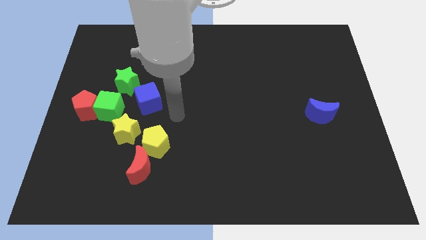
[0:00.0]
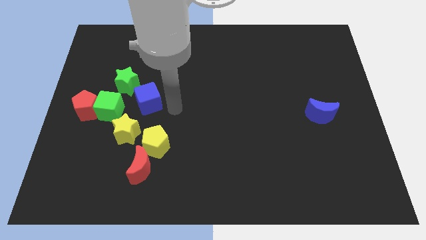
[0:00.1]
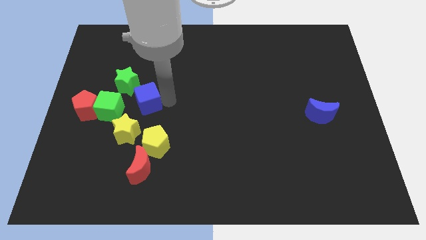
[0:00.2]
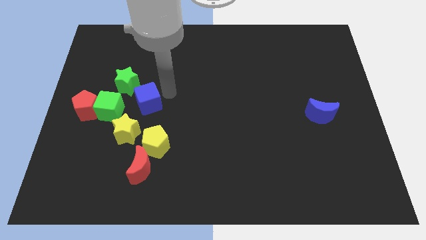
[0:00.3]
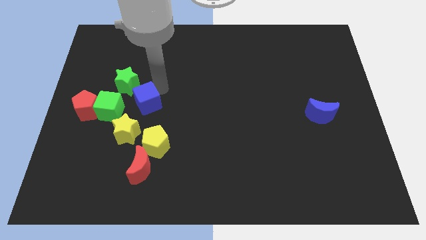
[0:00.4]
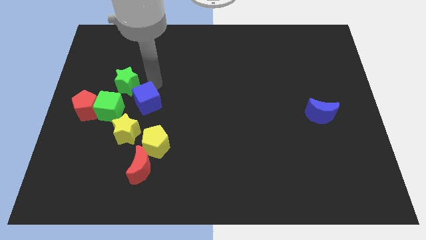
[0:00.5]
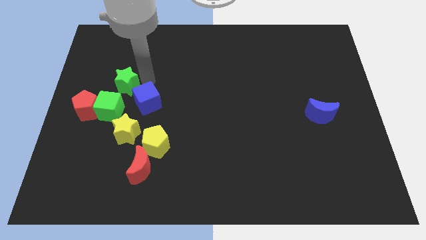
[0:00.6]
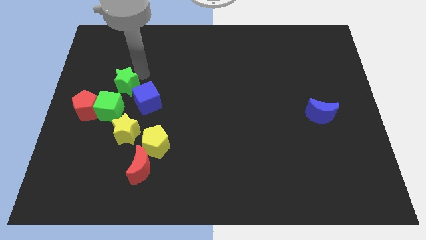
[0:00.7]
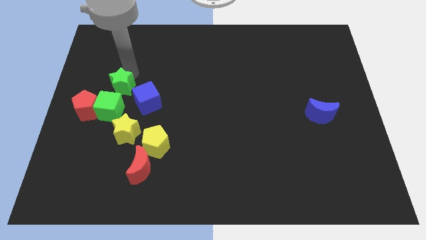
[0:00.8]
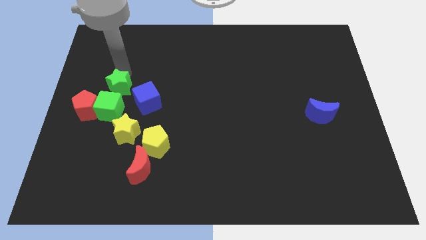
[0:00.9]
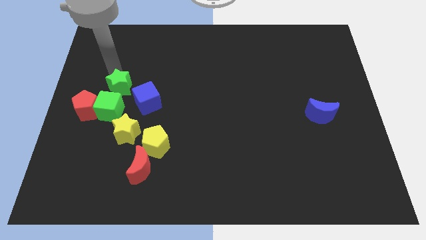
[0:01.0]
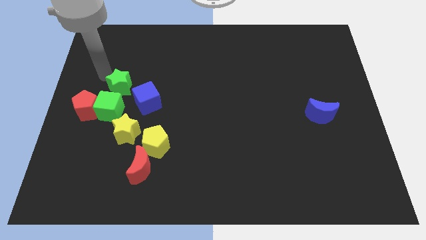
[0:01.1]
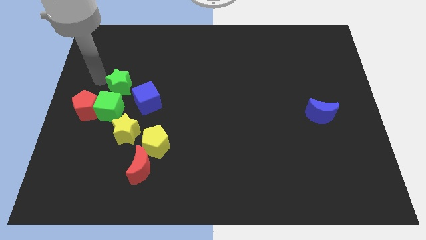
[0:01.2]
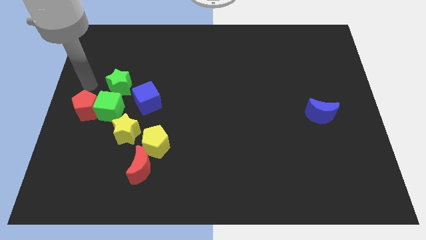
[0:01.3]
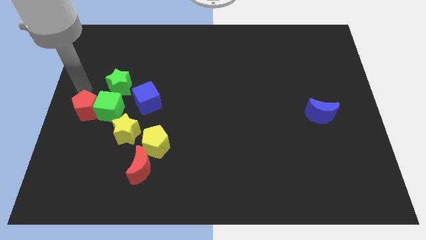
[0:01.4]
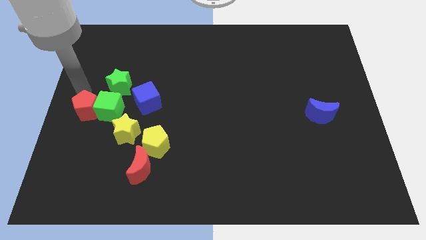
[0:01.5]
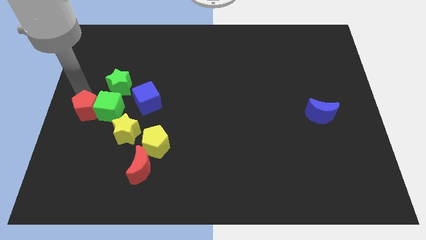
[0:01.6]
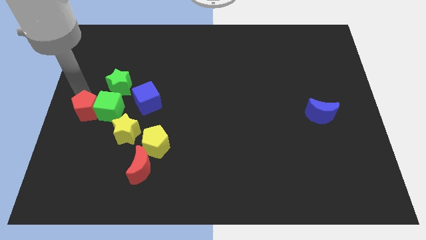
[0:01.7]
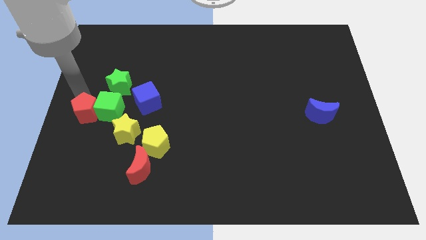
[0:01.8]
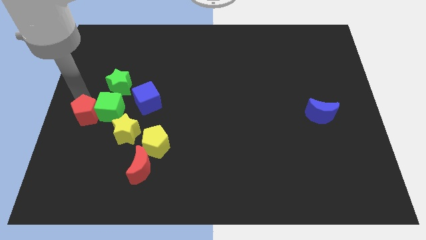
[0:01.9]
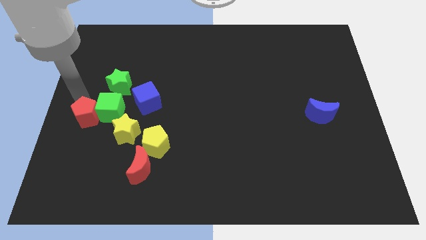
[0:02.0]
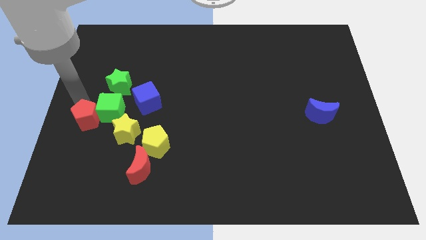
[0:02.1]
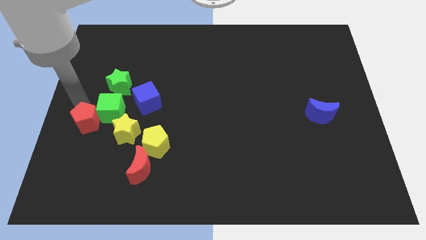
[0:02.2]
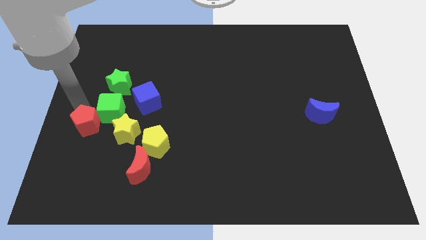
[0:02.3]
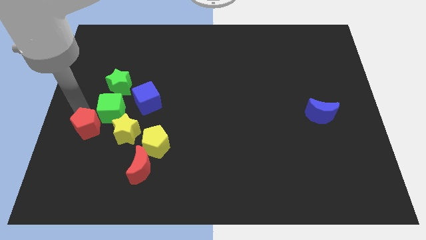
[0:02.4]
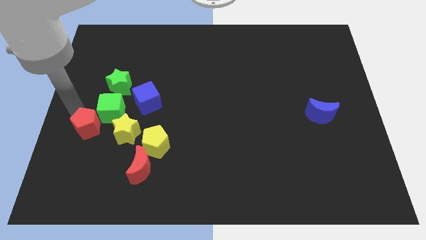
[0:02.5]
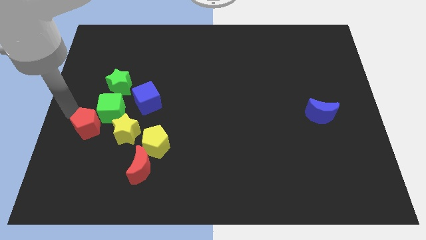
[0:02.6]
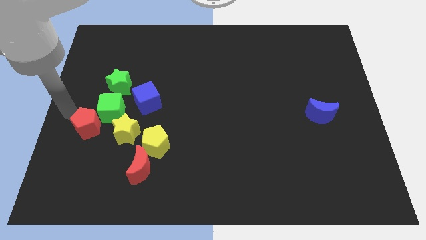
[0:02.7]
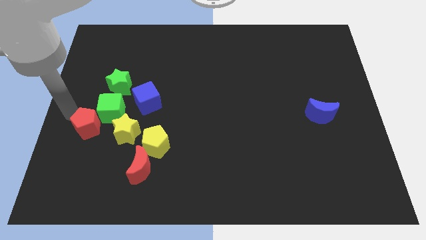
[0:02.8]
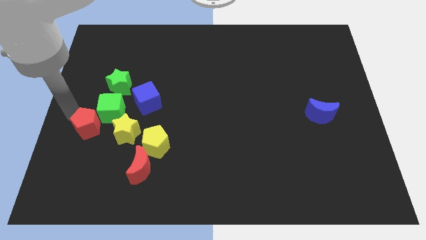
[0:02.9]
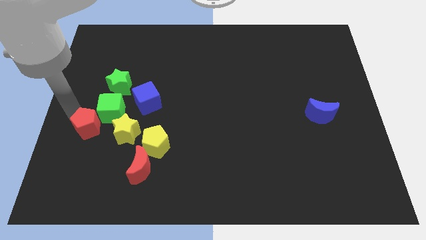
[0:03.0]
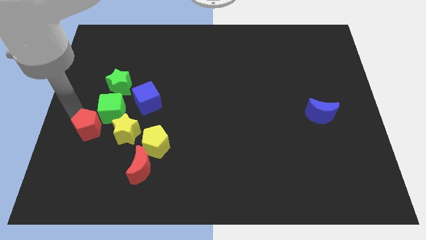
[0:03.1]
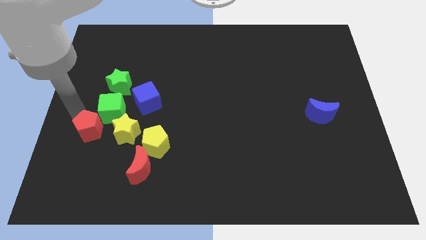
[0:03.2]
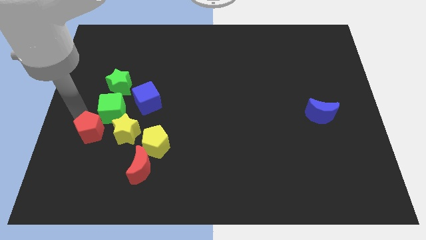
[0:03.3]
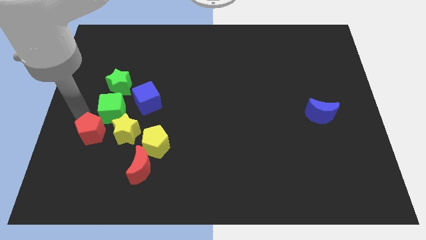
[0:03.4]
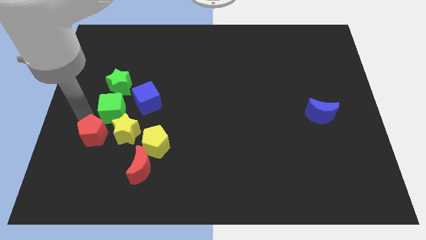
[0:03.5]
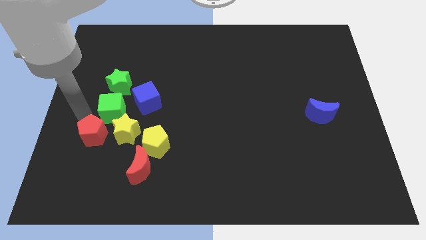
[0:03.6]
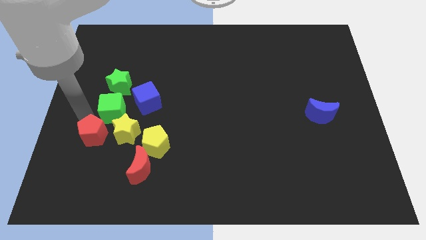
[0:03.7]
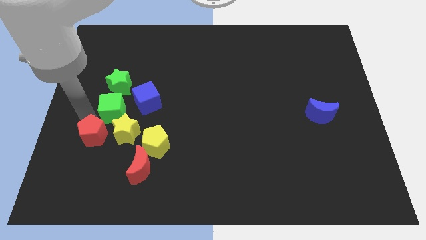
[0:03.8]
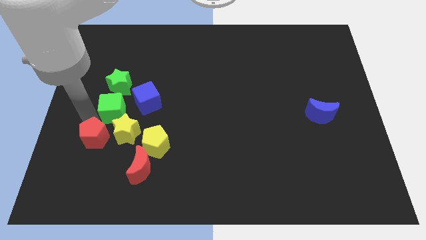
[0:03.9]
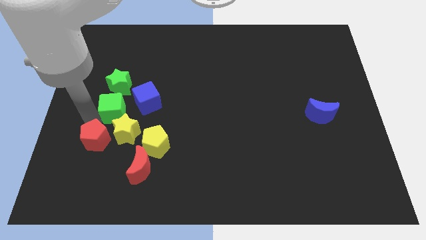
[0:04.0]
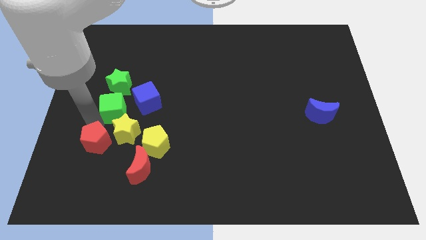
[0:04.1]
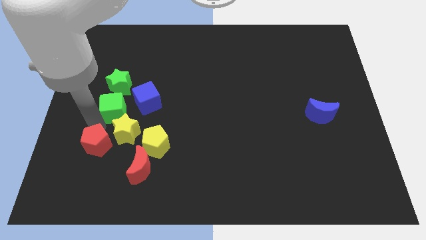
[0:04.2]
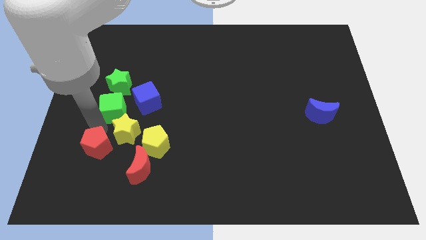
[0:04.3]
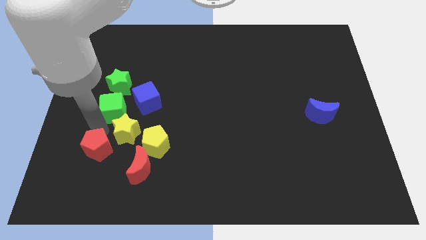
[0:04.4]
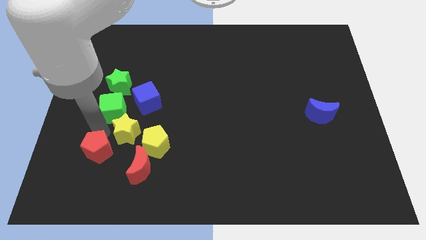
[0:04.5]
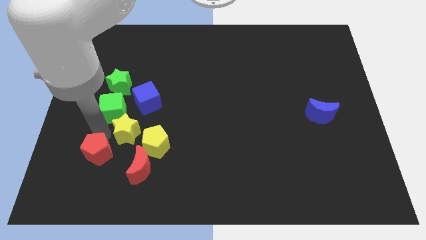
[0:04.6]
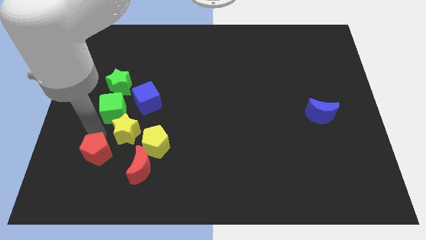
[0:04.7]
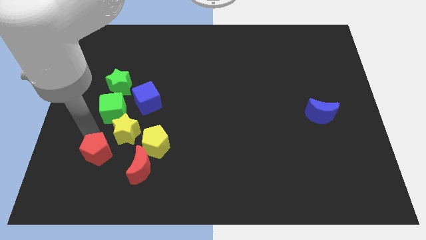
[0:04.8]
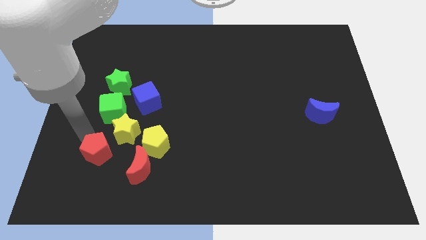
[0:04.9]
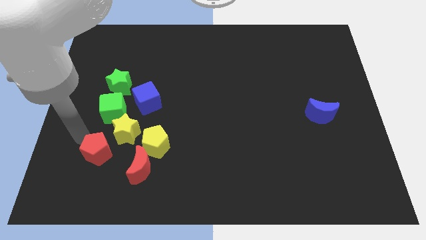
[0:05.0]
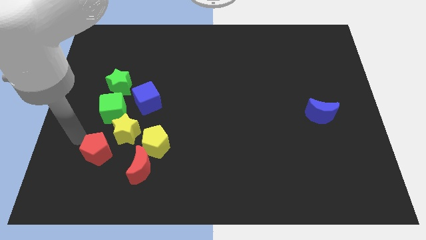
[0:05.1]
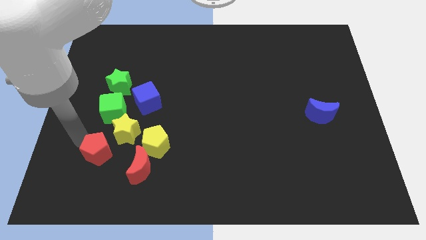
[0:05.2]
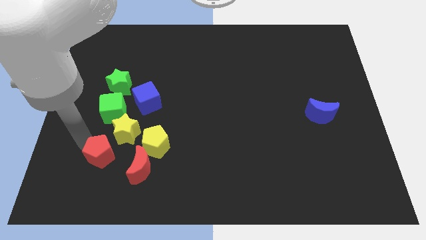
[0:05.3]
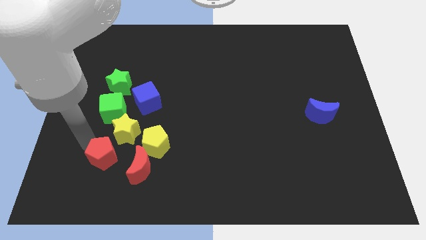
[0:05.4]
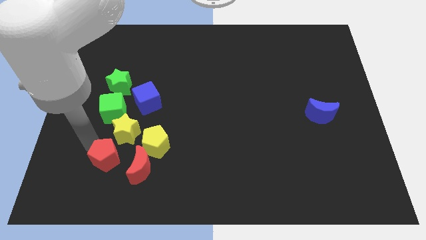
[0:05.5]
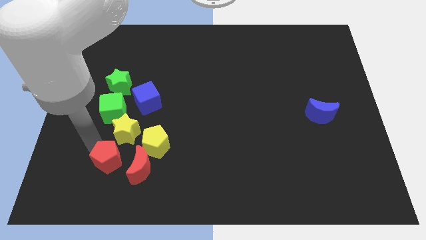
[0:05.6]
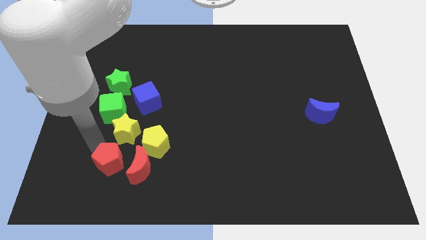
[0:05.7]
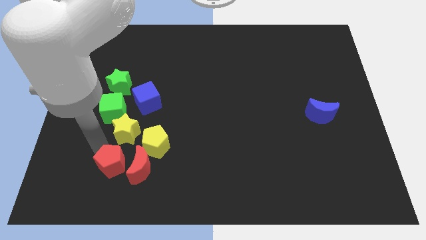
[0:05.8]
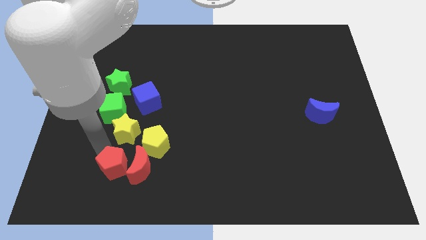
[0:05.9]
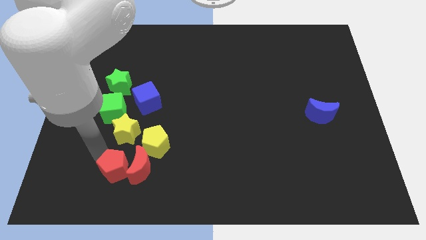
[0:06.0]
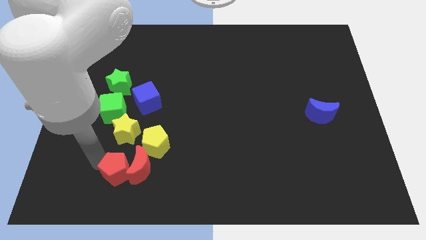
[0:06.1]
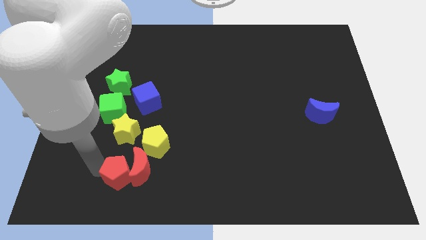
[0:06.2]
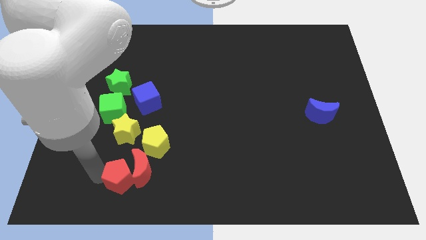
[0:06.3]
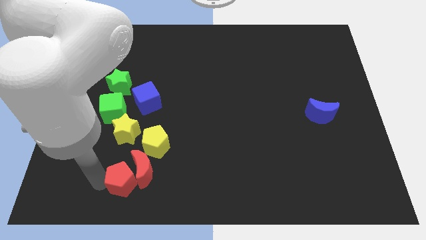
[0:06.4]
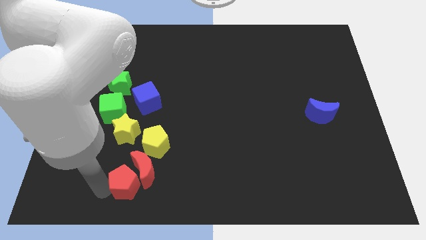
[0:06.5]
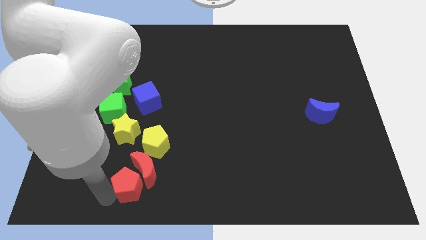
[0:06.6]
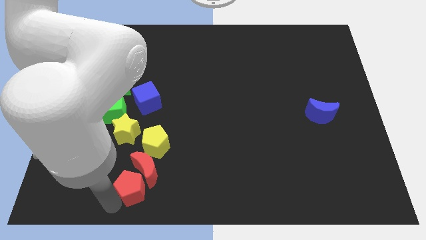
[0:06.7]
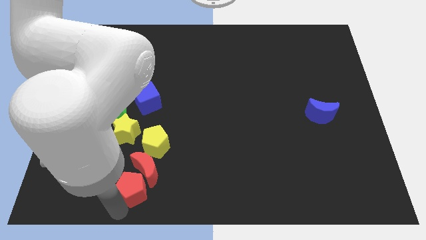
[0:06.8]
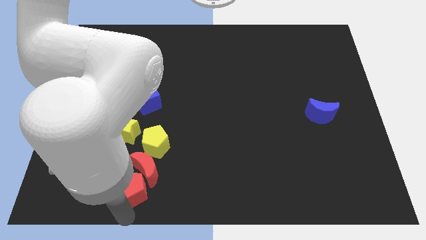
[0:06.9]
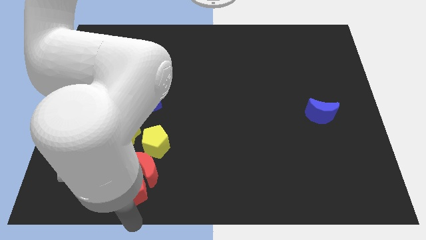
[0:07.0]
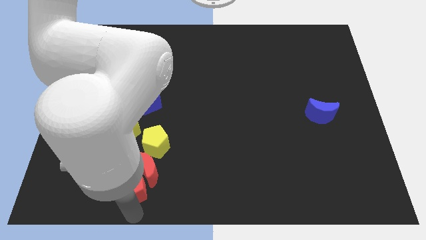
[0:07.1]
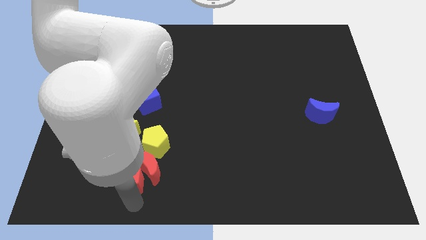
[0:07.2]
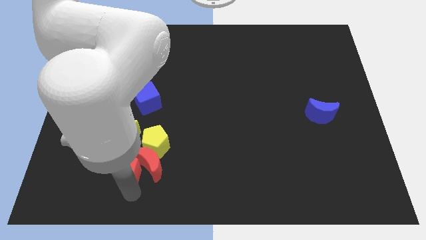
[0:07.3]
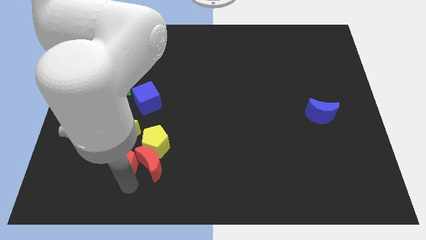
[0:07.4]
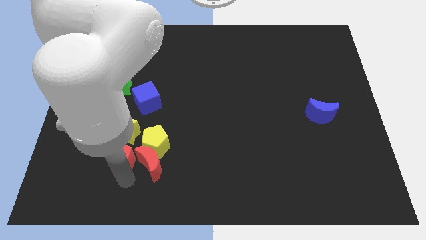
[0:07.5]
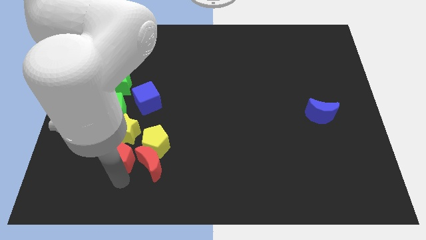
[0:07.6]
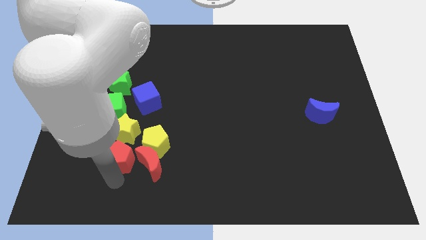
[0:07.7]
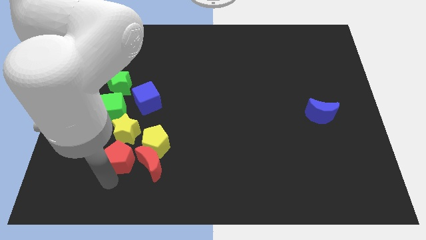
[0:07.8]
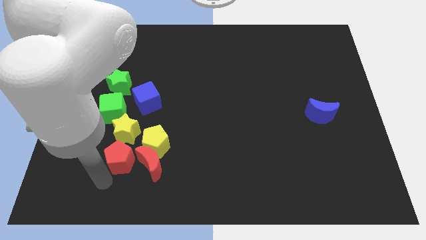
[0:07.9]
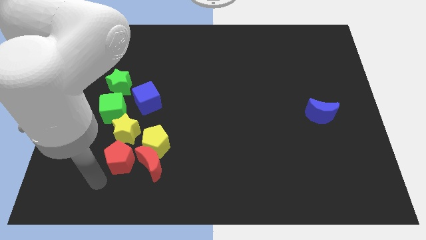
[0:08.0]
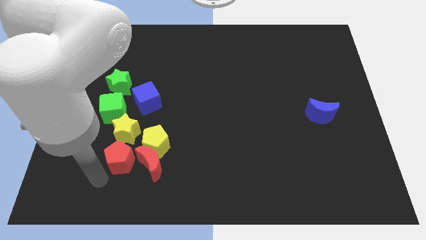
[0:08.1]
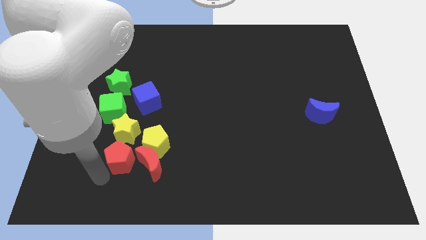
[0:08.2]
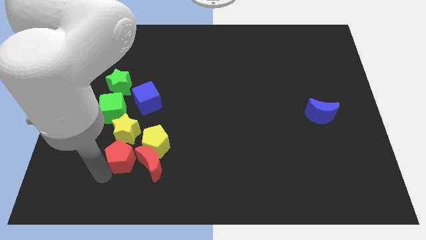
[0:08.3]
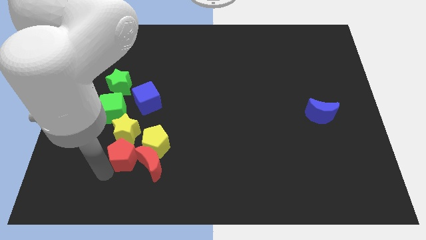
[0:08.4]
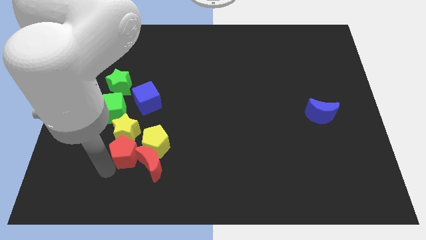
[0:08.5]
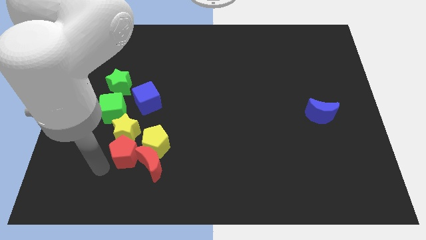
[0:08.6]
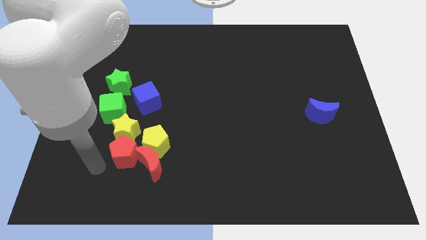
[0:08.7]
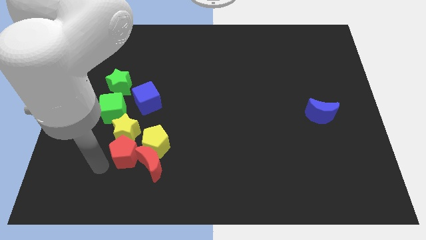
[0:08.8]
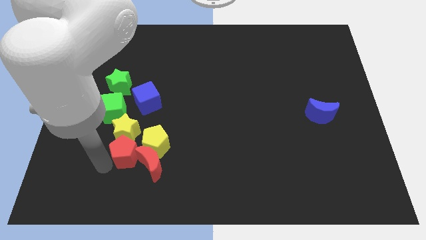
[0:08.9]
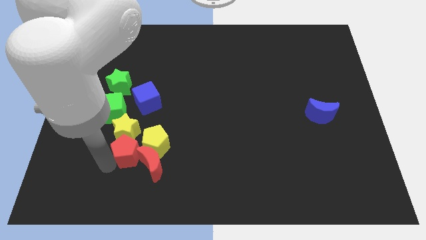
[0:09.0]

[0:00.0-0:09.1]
push the red pentagon close to the yellow pentagon
